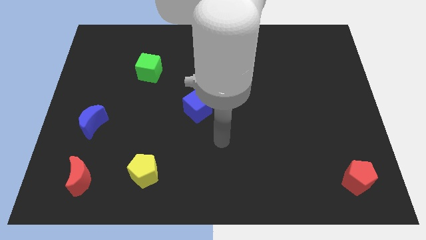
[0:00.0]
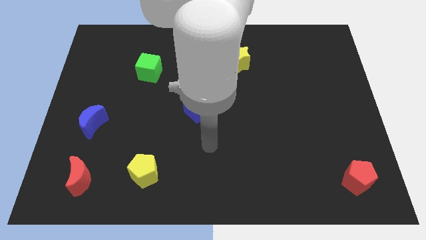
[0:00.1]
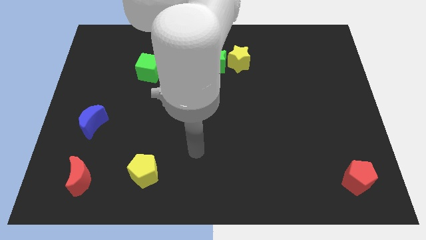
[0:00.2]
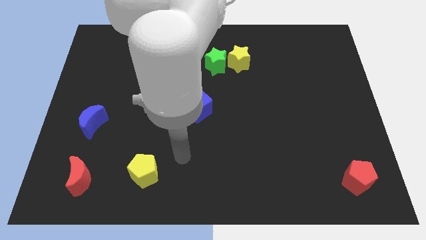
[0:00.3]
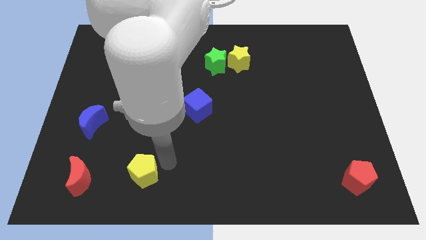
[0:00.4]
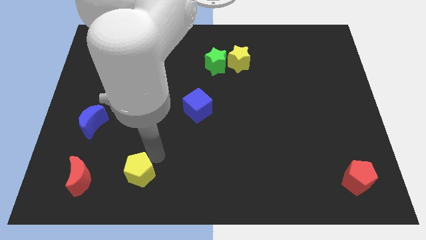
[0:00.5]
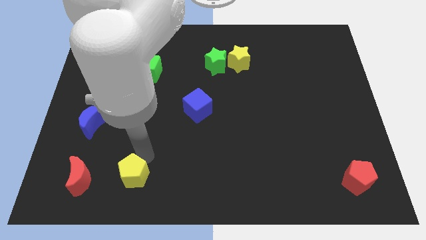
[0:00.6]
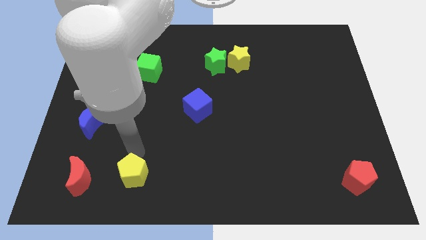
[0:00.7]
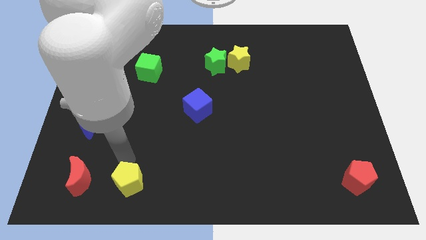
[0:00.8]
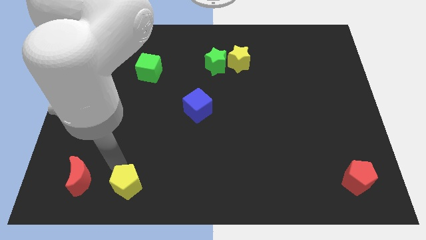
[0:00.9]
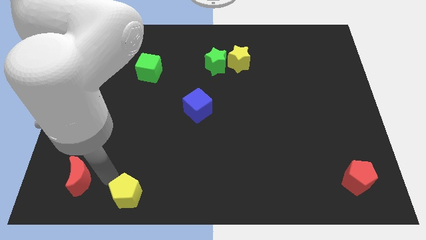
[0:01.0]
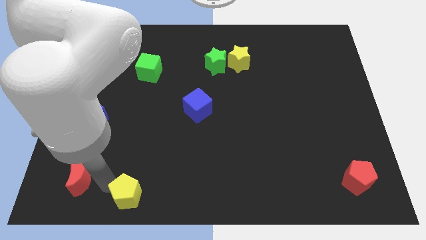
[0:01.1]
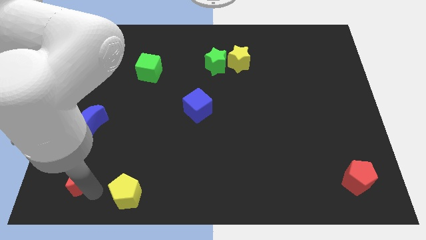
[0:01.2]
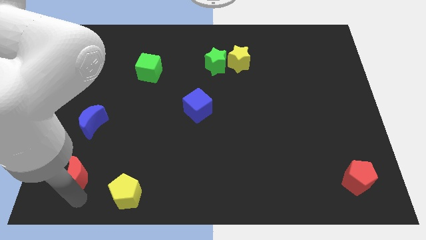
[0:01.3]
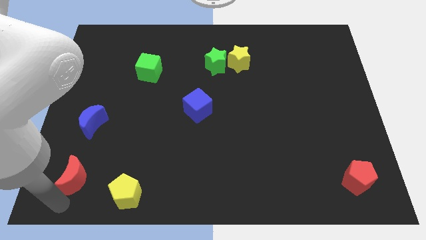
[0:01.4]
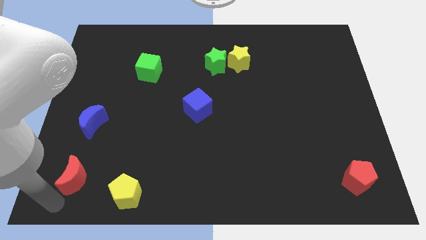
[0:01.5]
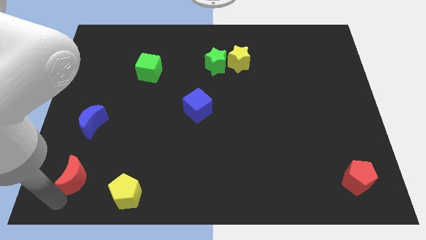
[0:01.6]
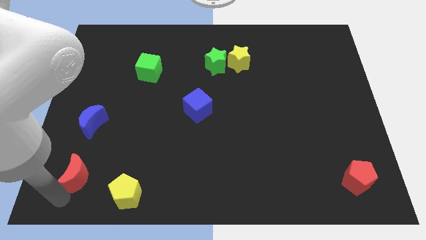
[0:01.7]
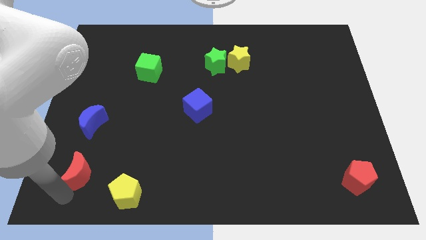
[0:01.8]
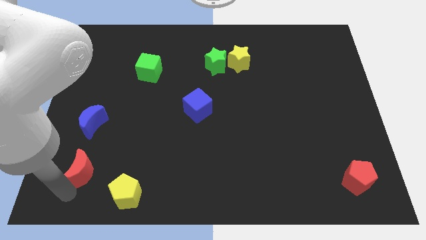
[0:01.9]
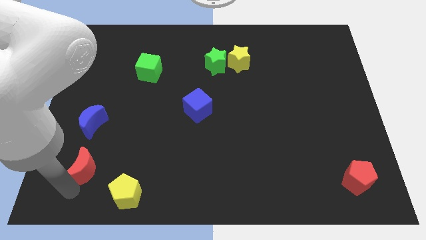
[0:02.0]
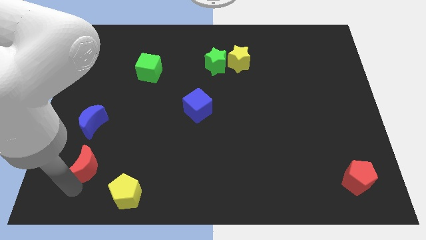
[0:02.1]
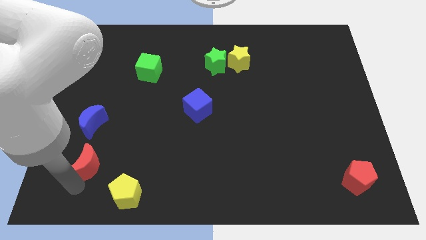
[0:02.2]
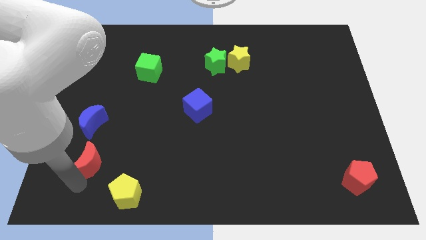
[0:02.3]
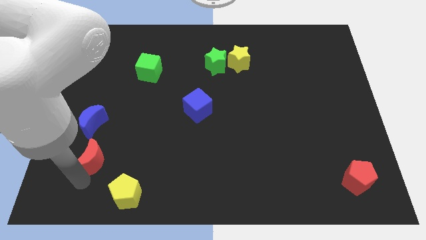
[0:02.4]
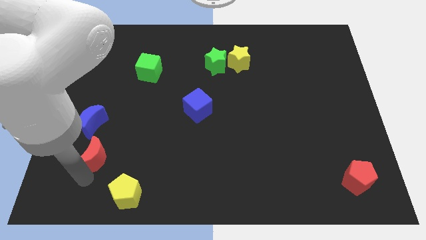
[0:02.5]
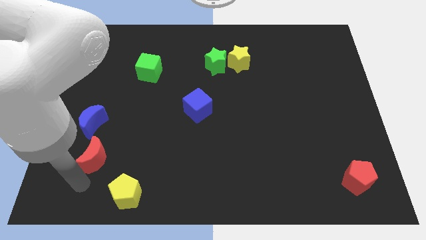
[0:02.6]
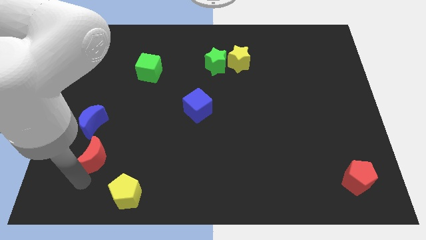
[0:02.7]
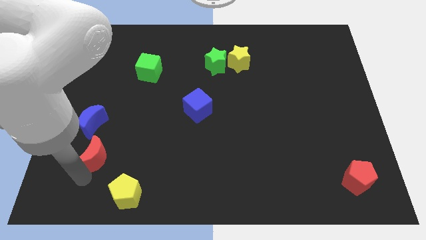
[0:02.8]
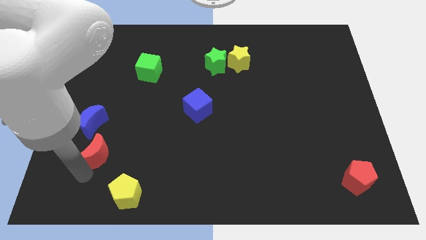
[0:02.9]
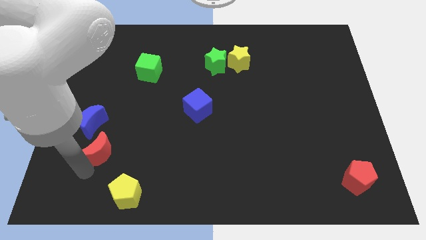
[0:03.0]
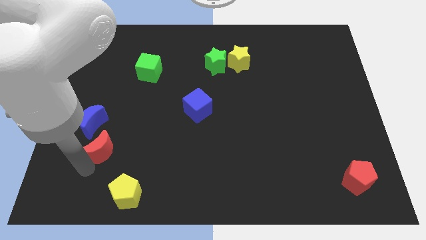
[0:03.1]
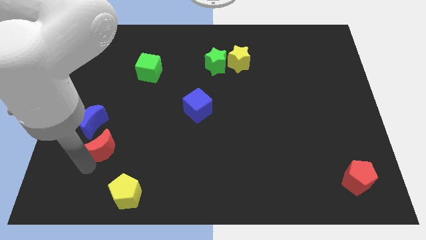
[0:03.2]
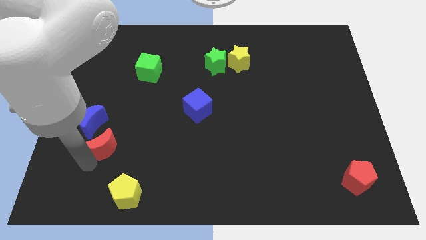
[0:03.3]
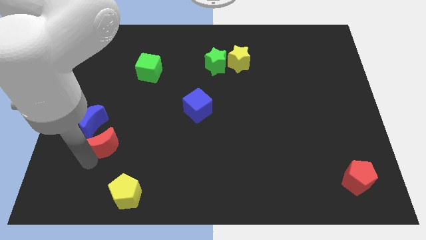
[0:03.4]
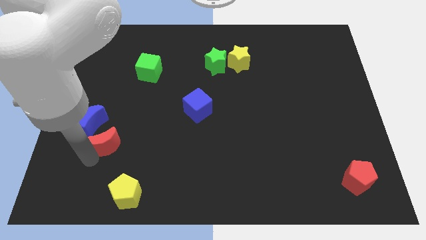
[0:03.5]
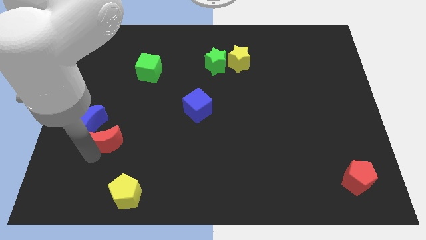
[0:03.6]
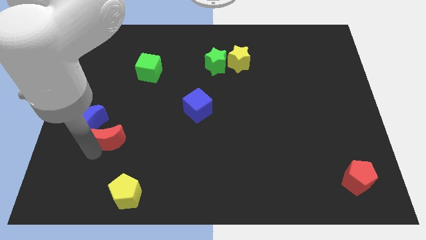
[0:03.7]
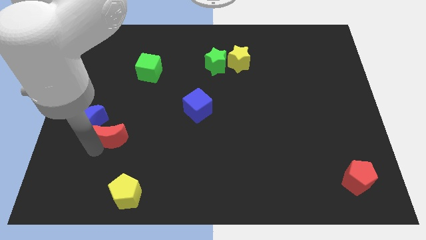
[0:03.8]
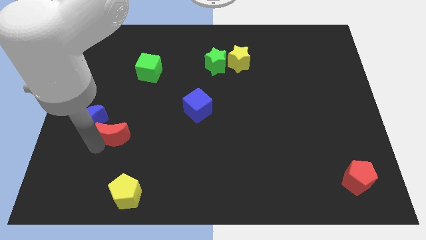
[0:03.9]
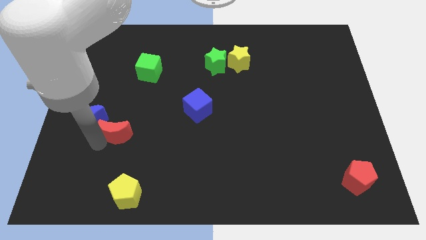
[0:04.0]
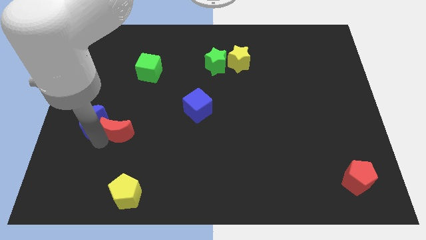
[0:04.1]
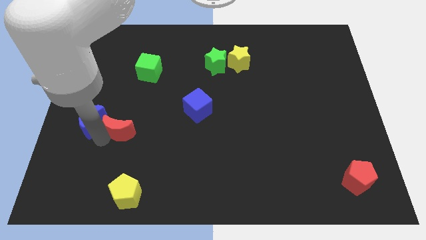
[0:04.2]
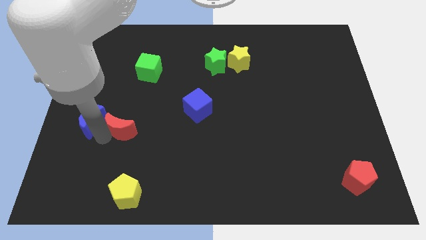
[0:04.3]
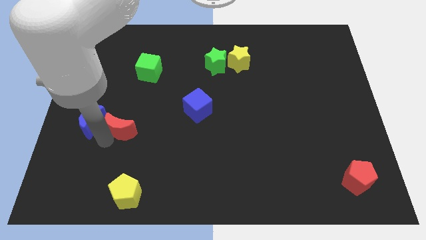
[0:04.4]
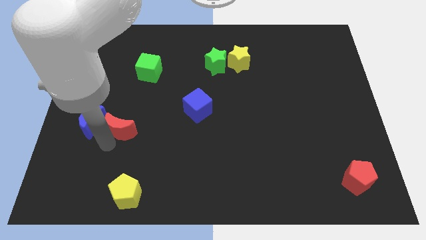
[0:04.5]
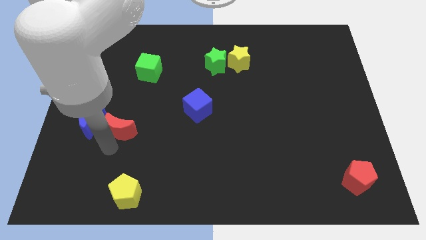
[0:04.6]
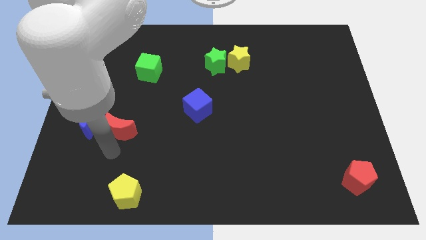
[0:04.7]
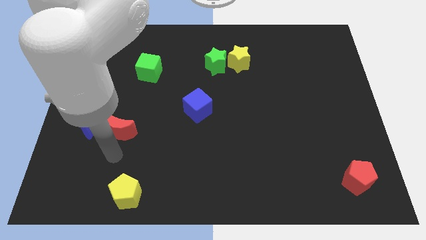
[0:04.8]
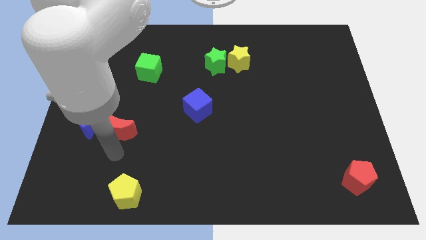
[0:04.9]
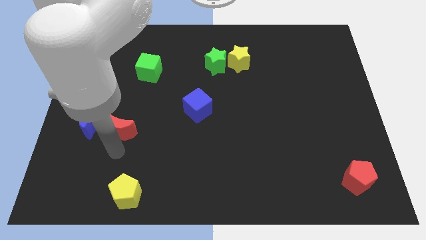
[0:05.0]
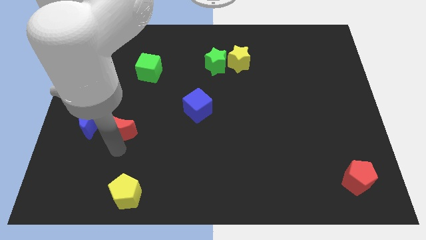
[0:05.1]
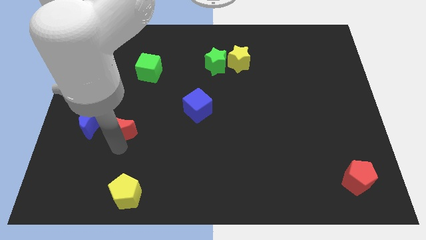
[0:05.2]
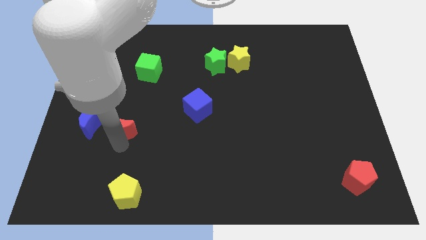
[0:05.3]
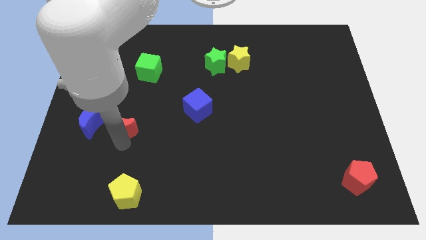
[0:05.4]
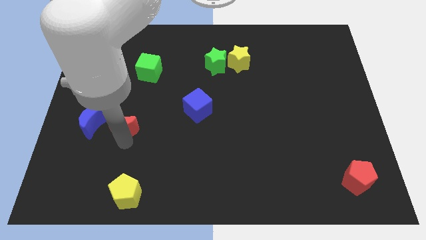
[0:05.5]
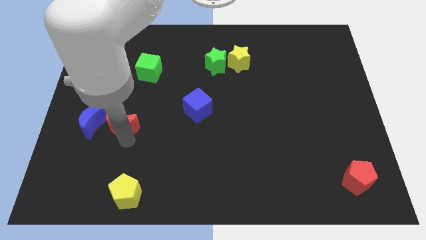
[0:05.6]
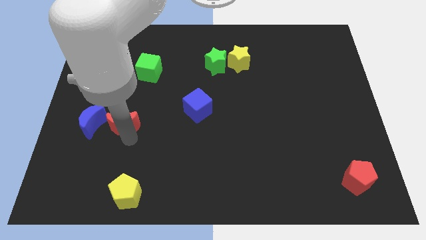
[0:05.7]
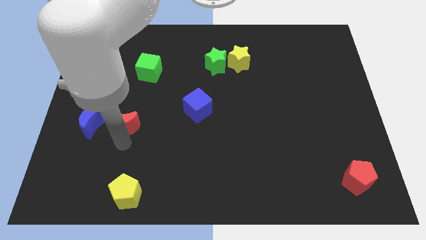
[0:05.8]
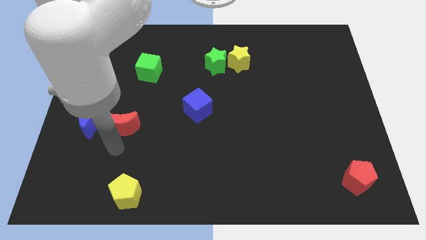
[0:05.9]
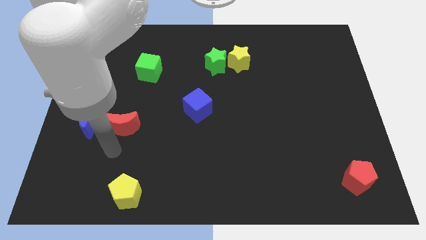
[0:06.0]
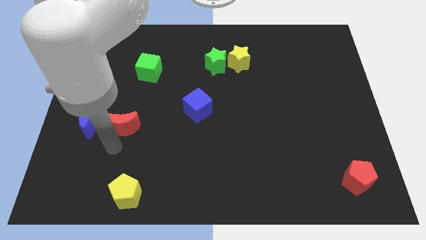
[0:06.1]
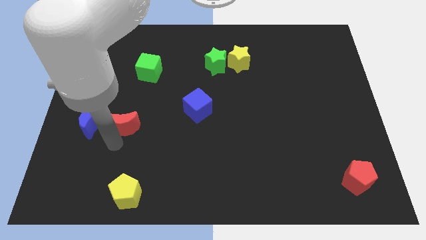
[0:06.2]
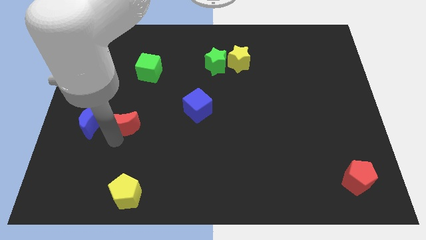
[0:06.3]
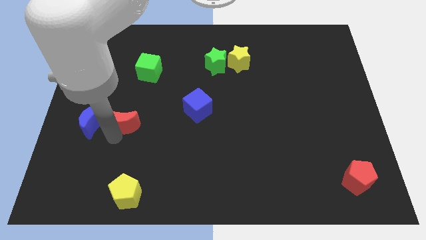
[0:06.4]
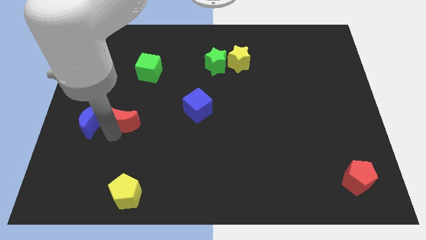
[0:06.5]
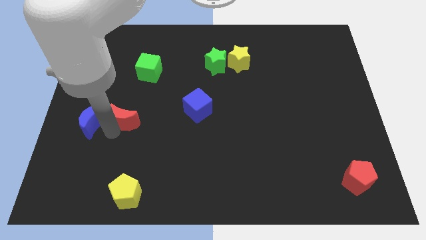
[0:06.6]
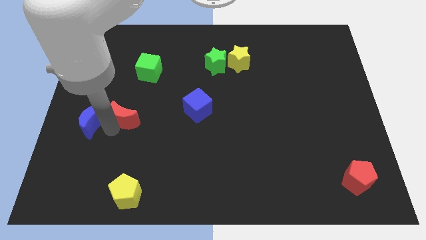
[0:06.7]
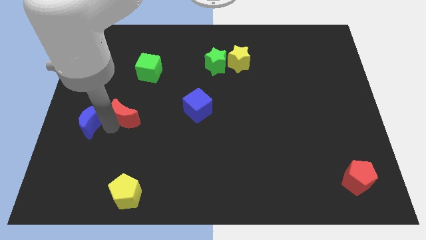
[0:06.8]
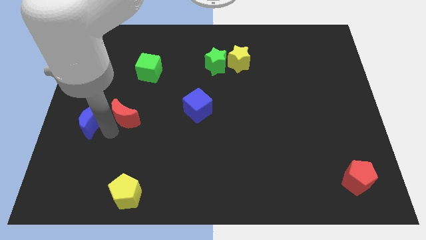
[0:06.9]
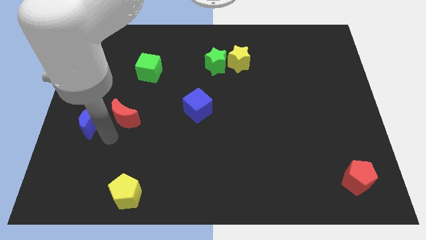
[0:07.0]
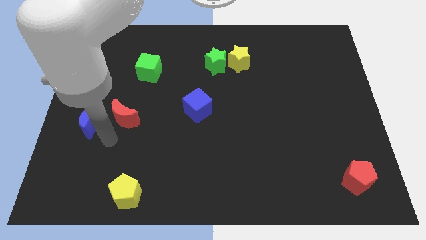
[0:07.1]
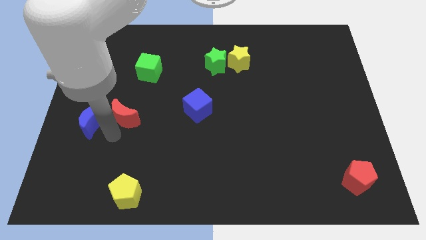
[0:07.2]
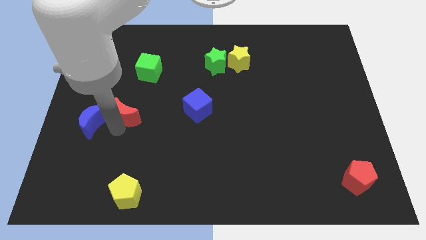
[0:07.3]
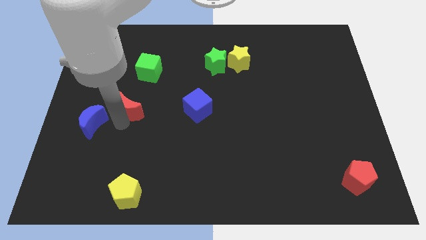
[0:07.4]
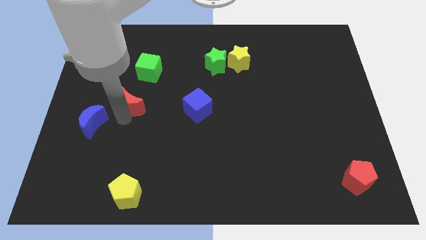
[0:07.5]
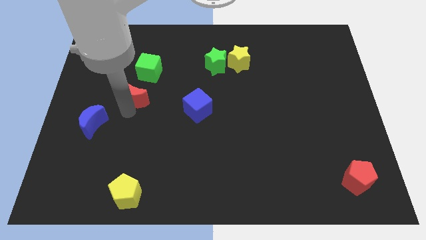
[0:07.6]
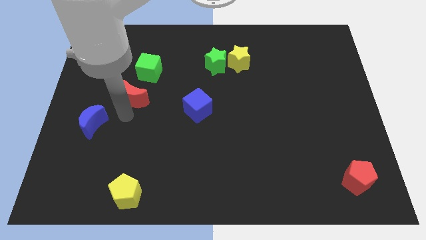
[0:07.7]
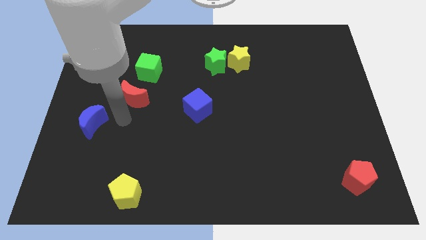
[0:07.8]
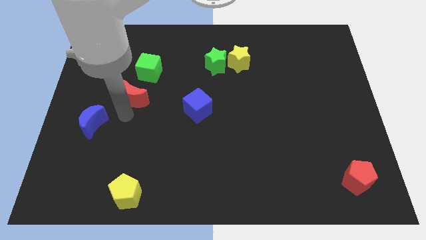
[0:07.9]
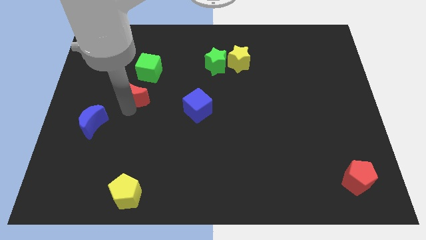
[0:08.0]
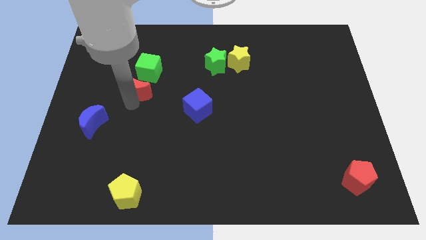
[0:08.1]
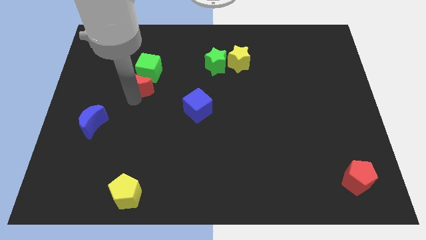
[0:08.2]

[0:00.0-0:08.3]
move the red moon towards the green cube

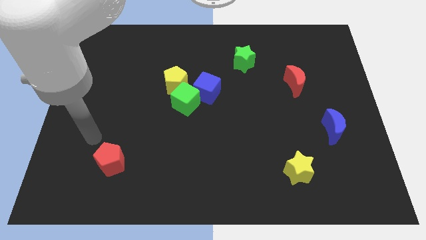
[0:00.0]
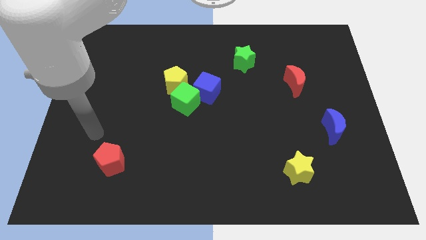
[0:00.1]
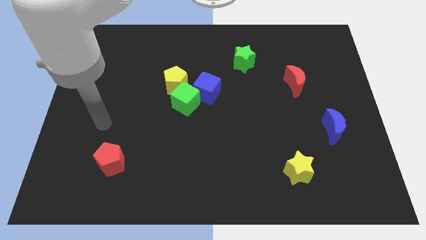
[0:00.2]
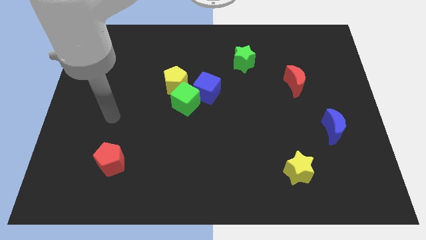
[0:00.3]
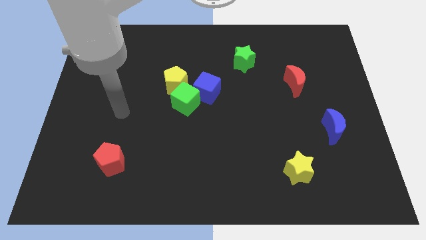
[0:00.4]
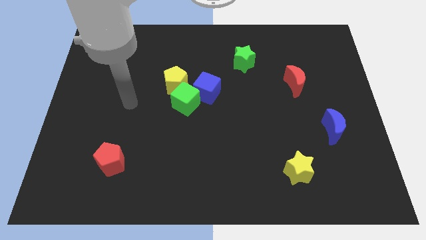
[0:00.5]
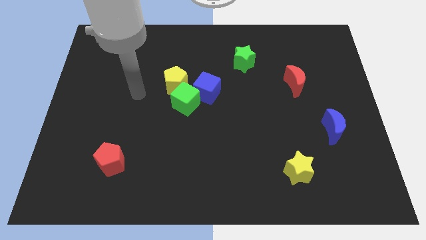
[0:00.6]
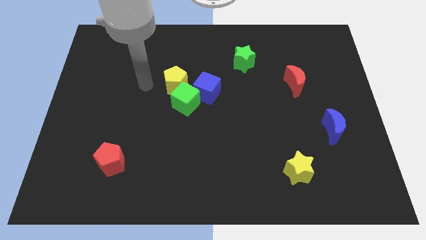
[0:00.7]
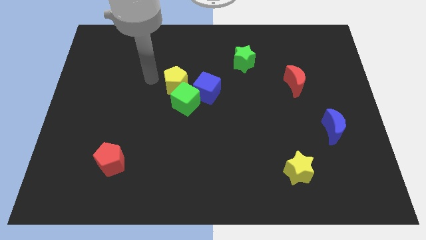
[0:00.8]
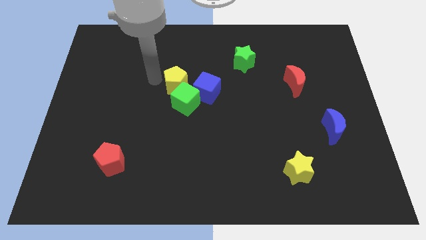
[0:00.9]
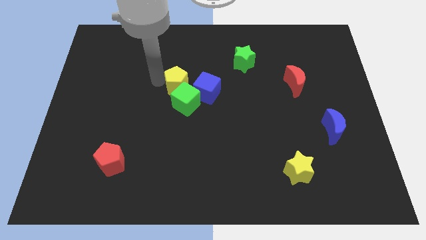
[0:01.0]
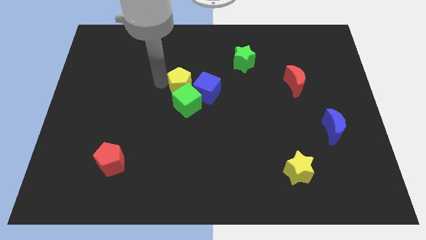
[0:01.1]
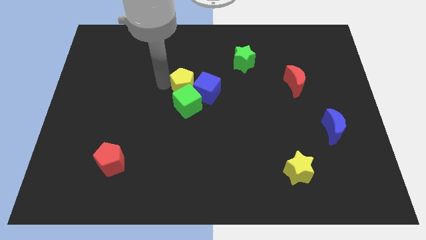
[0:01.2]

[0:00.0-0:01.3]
put the yellow pentagon to the blue cube
